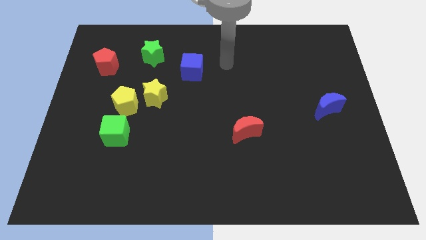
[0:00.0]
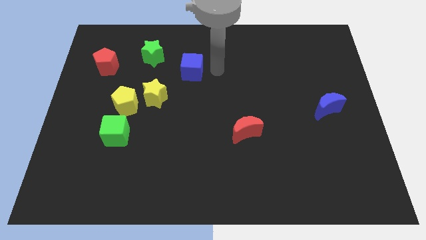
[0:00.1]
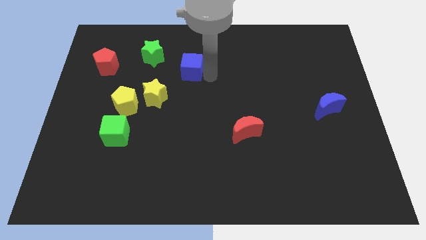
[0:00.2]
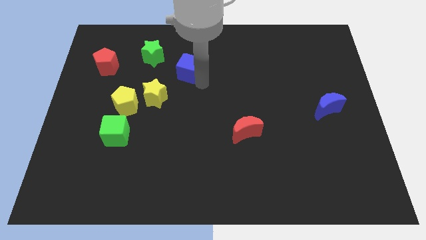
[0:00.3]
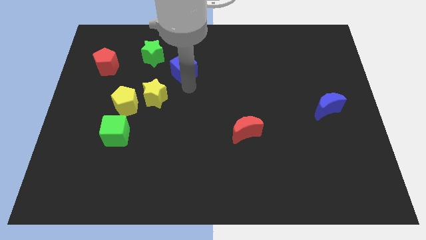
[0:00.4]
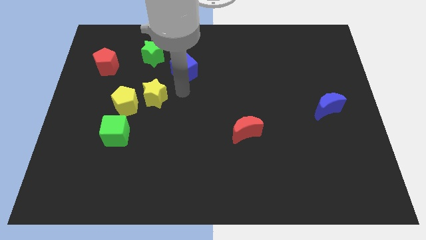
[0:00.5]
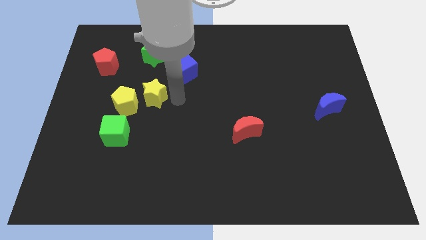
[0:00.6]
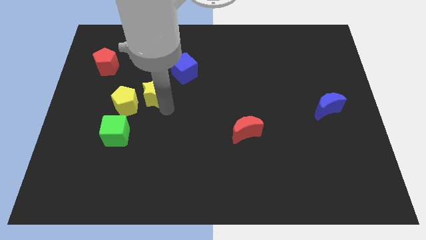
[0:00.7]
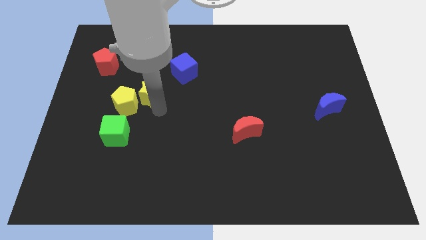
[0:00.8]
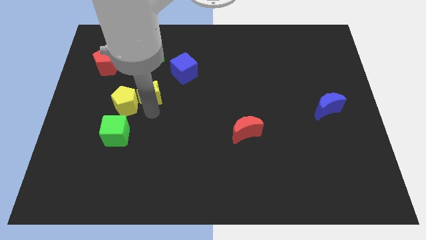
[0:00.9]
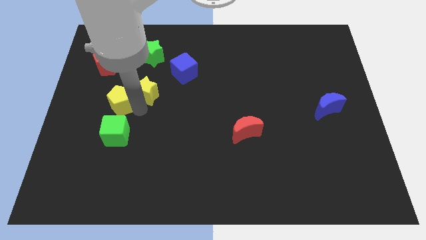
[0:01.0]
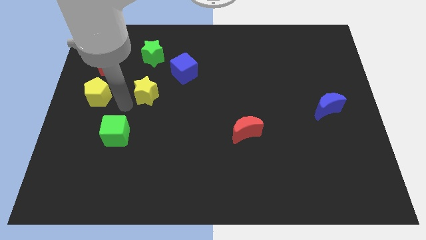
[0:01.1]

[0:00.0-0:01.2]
separate the yellow star from the yellow pentagon

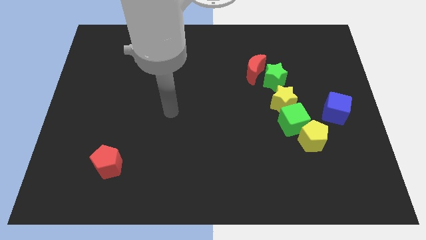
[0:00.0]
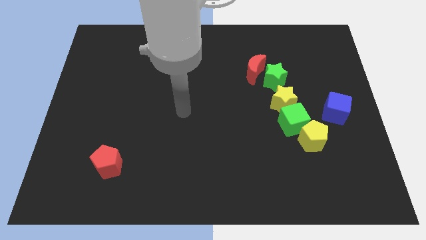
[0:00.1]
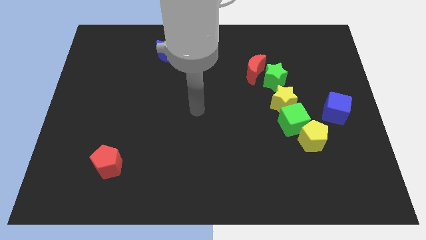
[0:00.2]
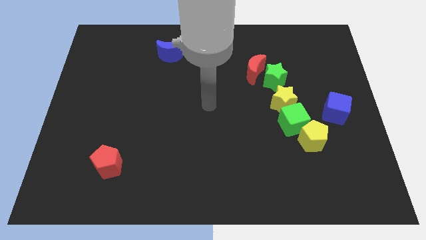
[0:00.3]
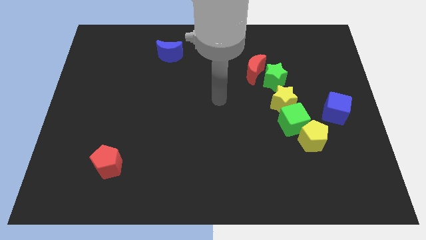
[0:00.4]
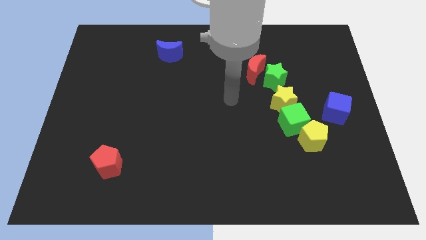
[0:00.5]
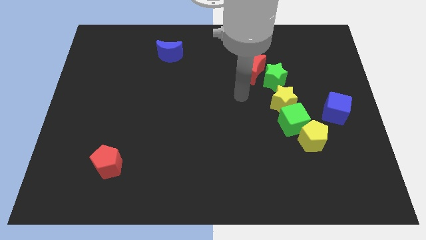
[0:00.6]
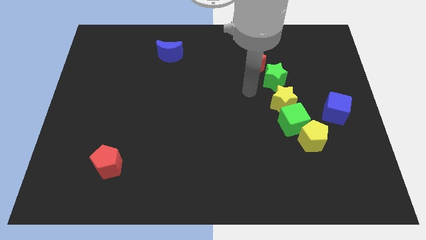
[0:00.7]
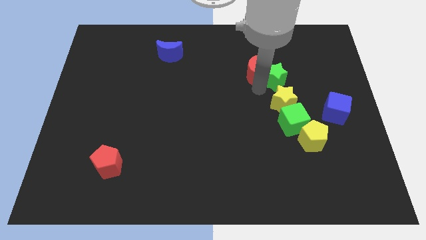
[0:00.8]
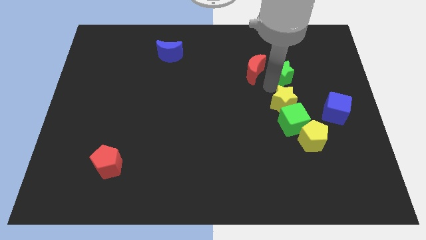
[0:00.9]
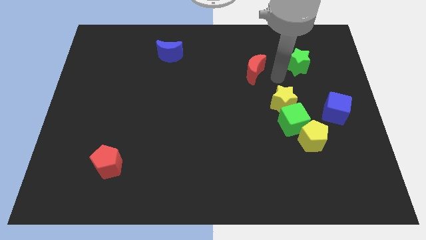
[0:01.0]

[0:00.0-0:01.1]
pull the red moon apart from the green star

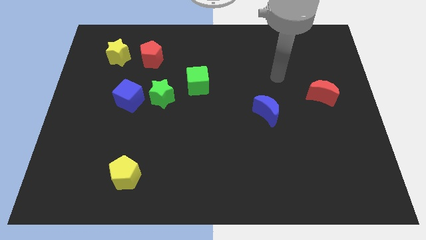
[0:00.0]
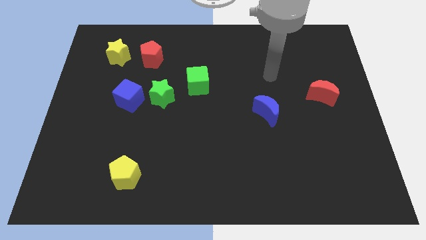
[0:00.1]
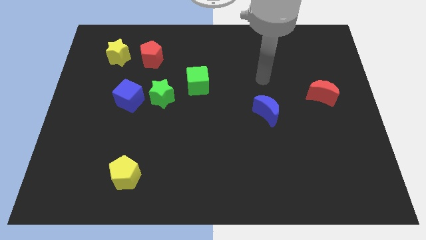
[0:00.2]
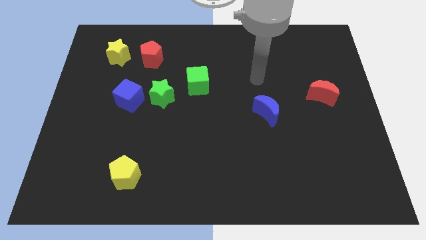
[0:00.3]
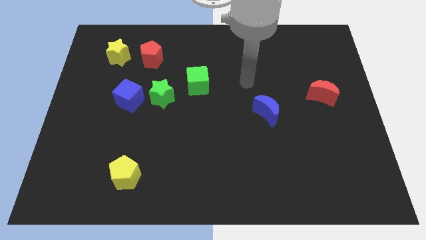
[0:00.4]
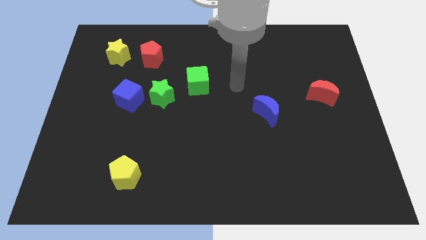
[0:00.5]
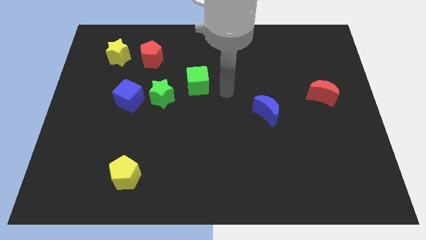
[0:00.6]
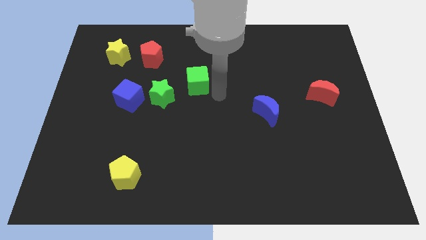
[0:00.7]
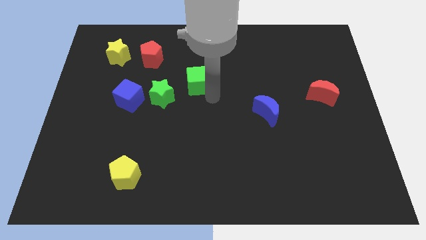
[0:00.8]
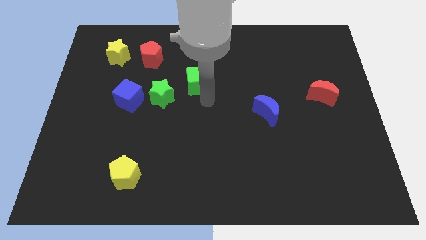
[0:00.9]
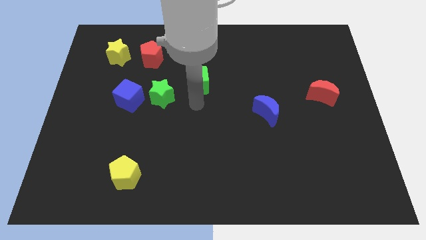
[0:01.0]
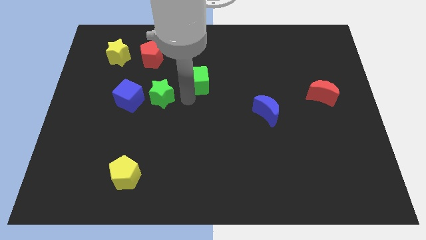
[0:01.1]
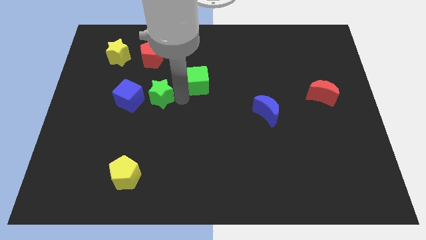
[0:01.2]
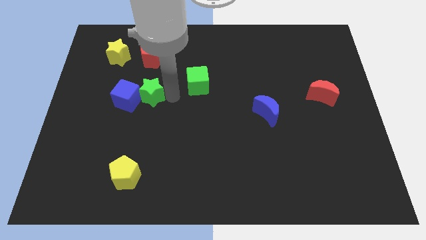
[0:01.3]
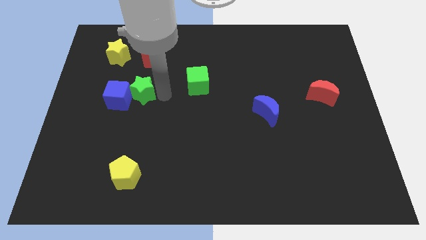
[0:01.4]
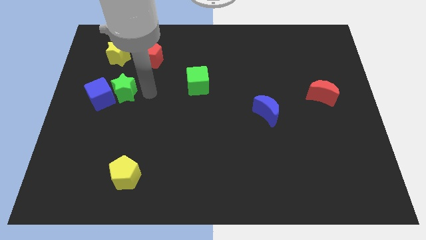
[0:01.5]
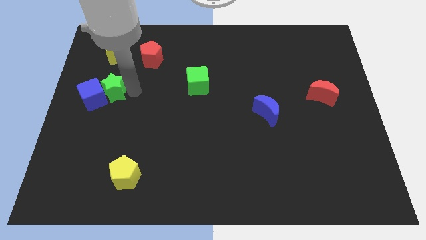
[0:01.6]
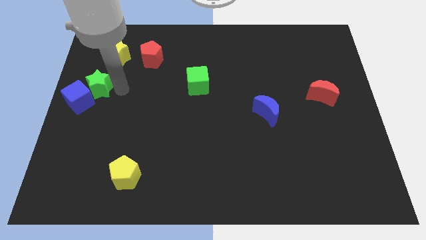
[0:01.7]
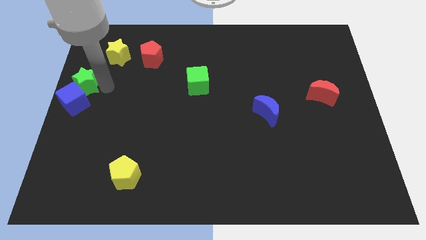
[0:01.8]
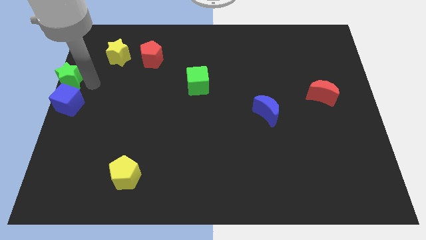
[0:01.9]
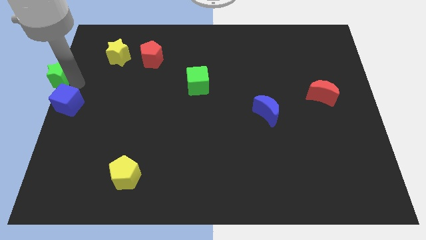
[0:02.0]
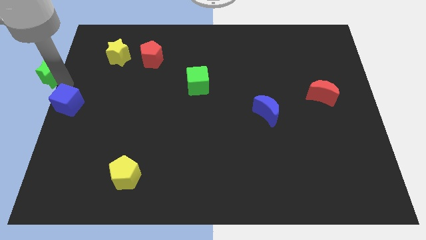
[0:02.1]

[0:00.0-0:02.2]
pull the blue cube apart from the green star

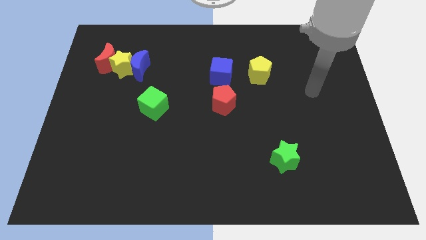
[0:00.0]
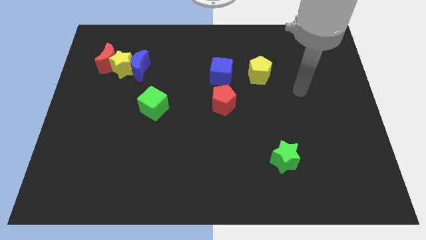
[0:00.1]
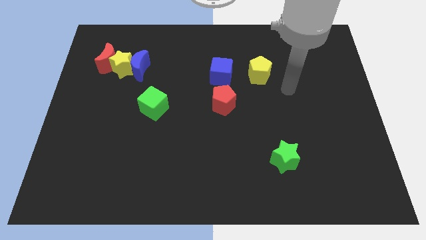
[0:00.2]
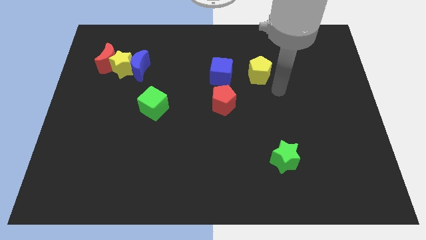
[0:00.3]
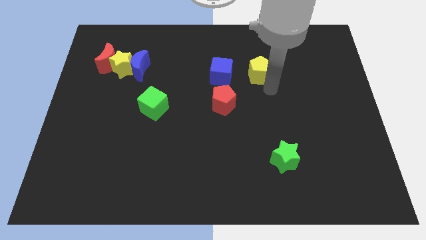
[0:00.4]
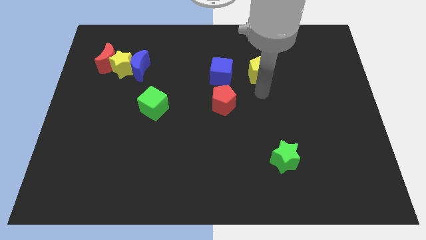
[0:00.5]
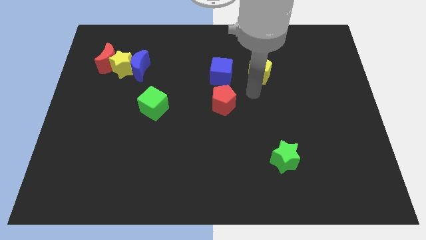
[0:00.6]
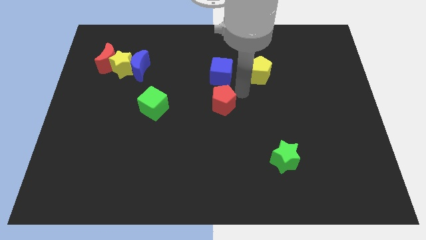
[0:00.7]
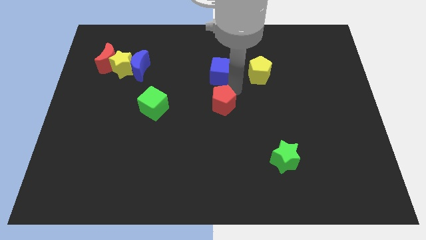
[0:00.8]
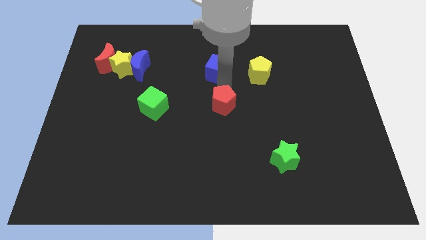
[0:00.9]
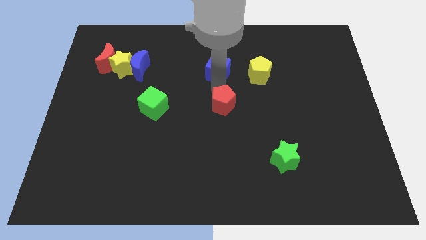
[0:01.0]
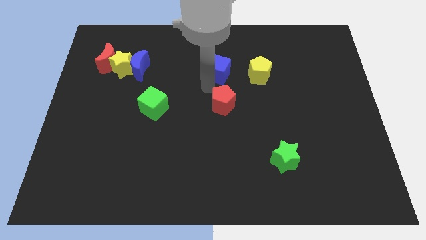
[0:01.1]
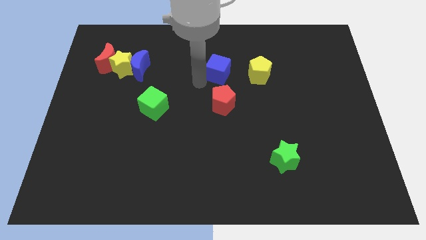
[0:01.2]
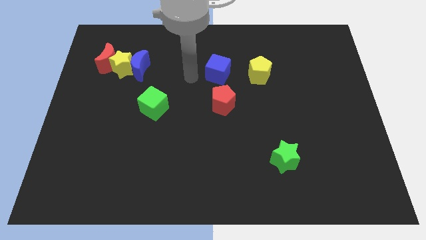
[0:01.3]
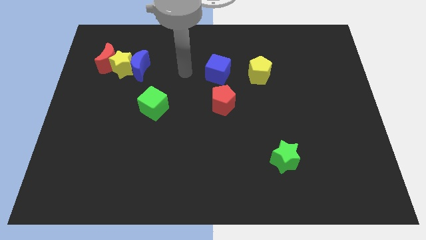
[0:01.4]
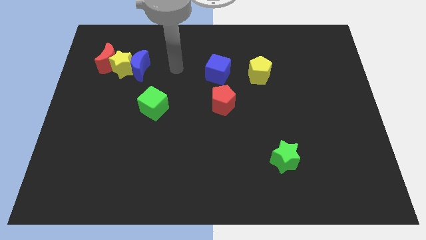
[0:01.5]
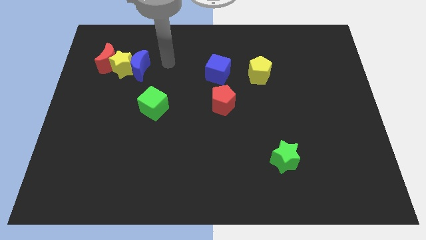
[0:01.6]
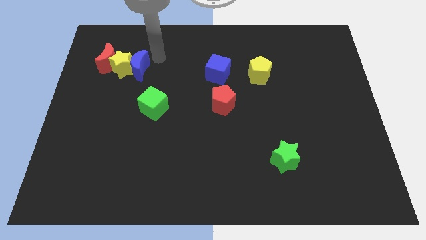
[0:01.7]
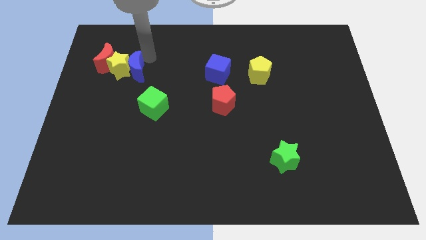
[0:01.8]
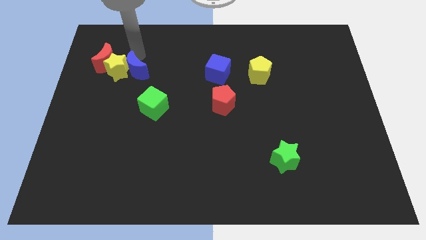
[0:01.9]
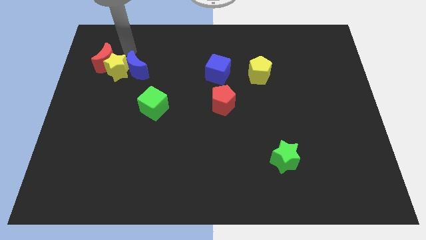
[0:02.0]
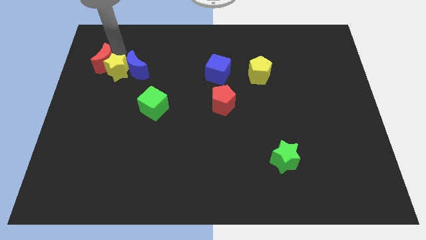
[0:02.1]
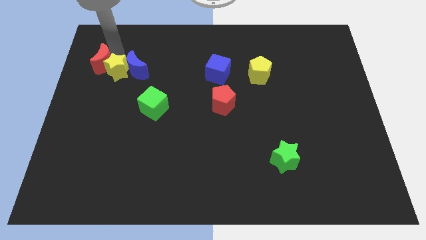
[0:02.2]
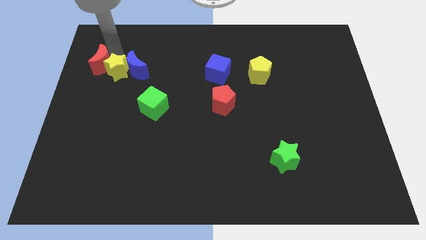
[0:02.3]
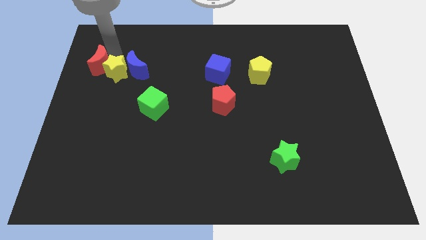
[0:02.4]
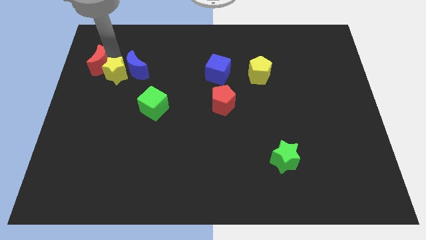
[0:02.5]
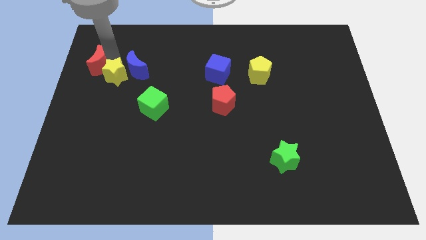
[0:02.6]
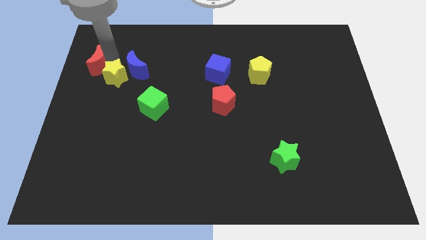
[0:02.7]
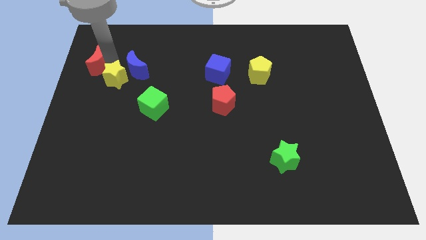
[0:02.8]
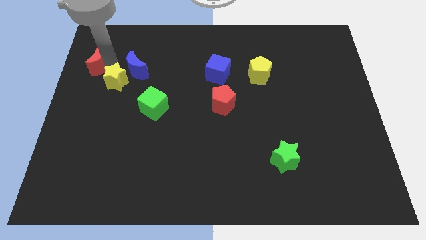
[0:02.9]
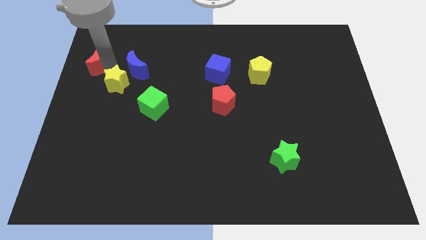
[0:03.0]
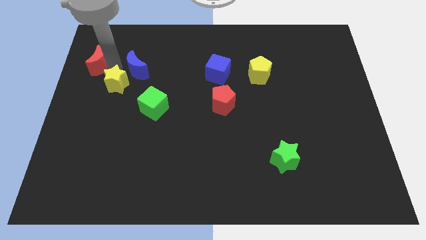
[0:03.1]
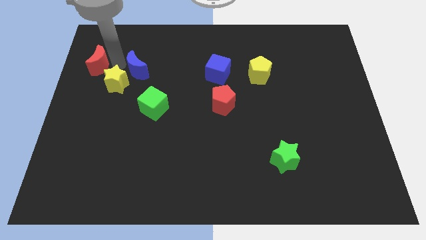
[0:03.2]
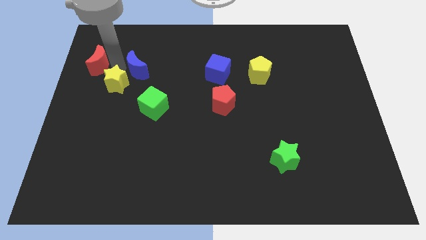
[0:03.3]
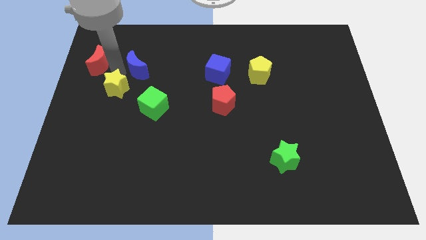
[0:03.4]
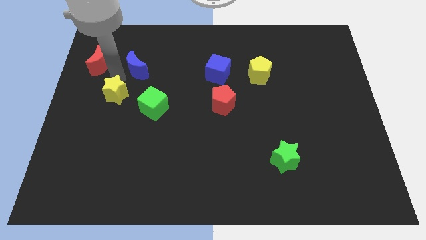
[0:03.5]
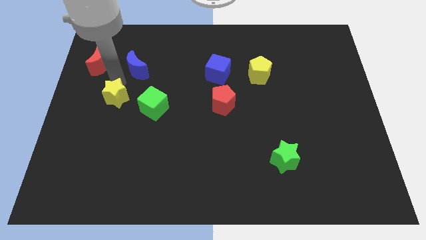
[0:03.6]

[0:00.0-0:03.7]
move the yellow star away from the blue moon and red moon

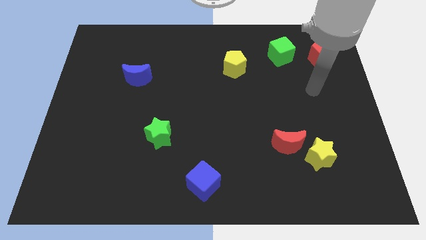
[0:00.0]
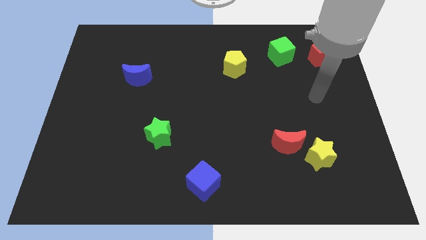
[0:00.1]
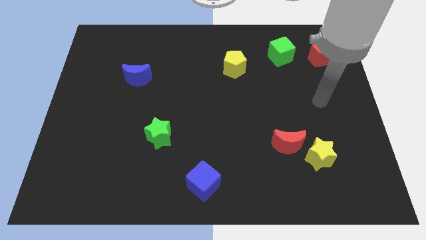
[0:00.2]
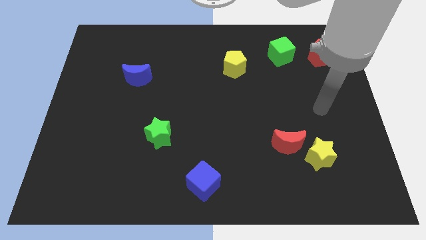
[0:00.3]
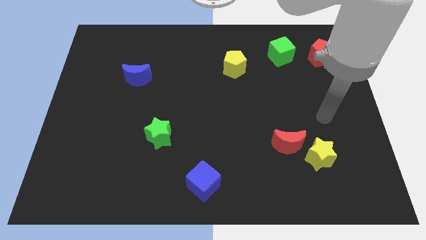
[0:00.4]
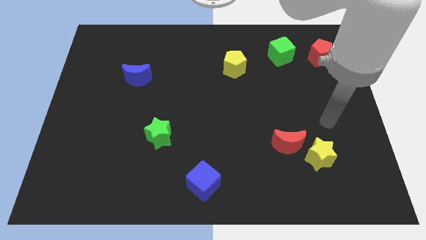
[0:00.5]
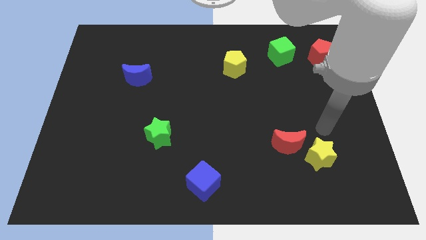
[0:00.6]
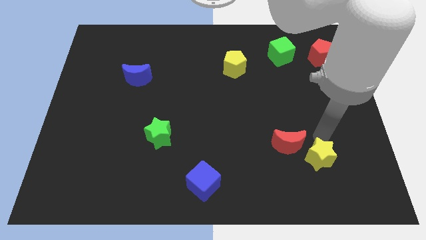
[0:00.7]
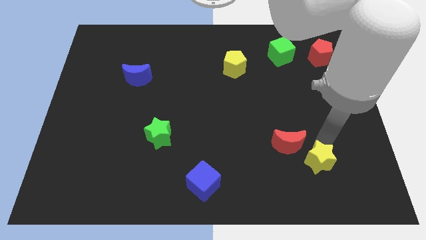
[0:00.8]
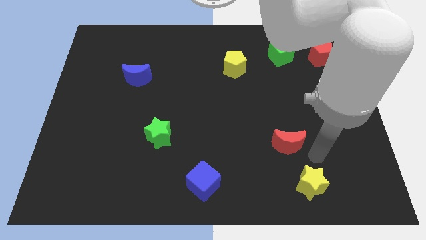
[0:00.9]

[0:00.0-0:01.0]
move the red moon away from the yellow star

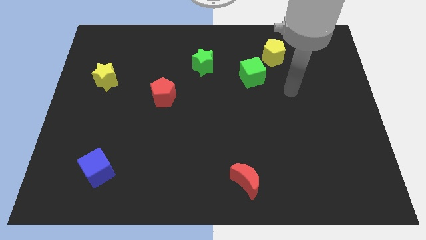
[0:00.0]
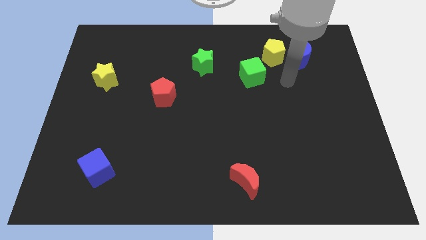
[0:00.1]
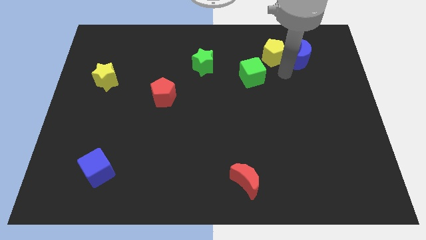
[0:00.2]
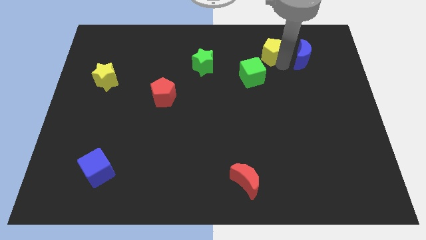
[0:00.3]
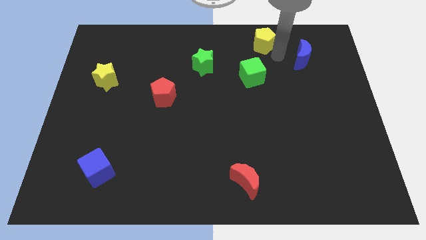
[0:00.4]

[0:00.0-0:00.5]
separate the blue moon from the yellow pentagon
